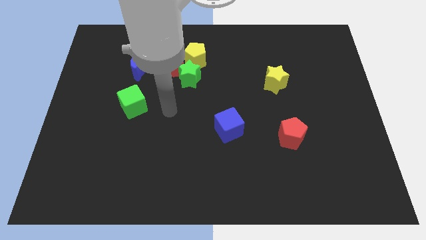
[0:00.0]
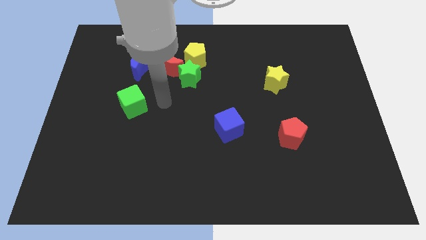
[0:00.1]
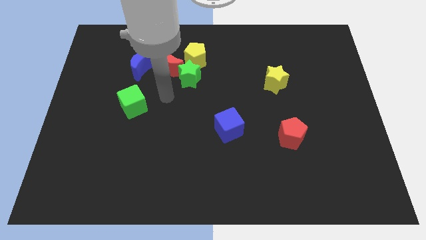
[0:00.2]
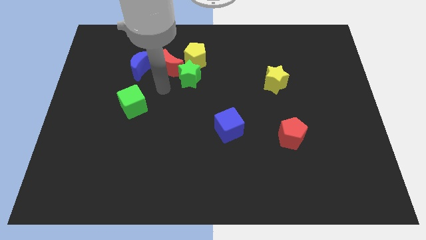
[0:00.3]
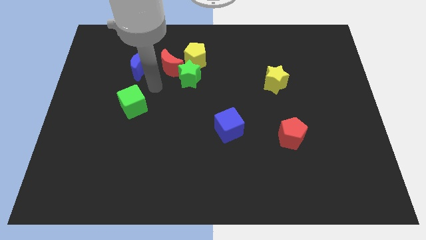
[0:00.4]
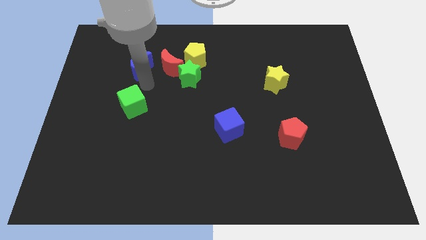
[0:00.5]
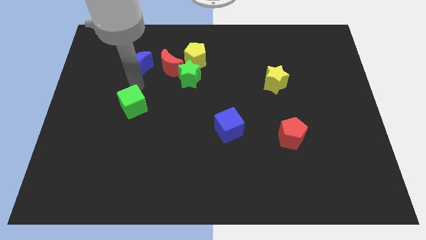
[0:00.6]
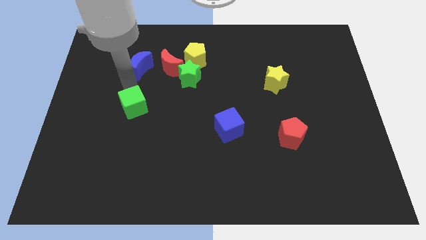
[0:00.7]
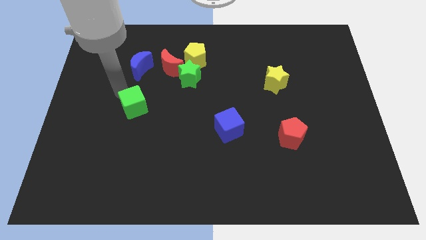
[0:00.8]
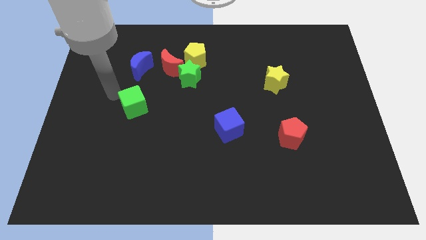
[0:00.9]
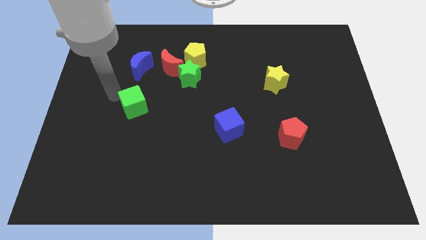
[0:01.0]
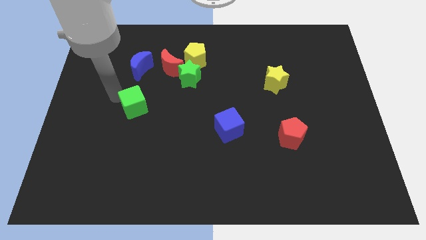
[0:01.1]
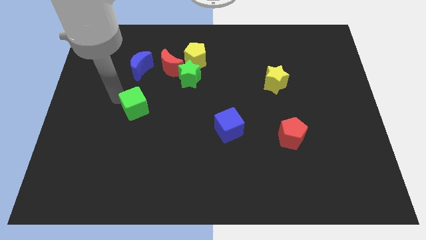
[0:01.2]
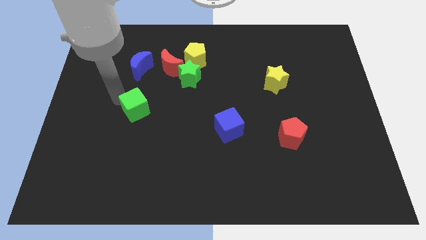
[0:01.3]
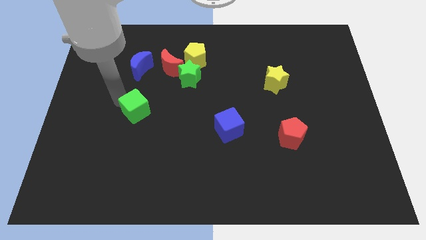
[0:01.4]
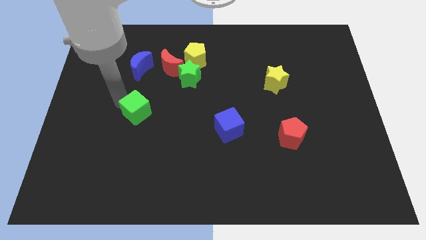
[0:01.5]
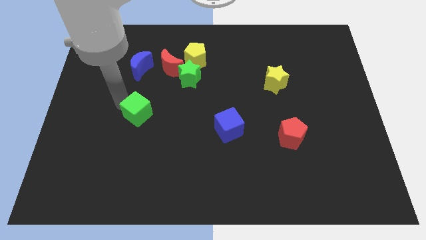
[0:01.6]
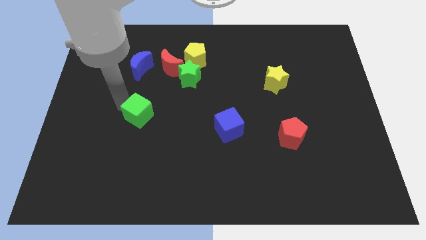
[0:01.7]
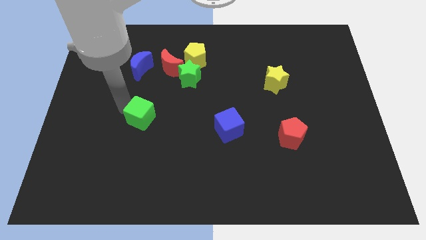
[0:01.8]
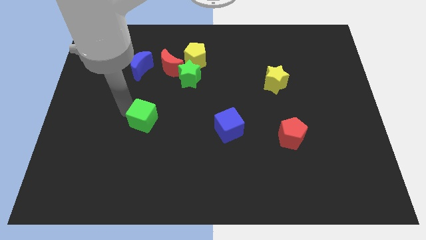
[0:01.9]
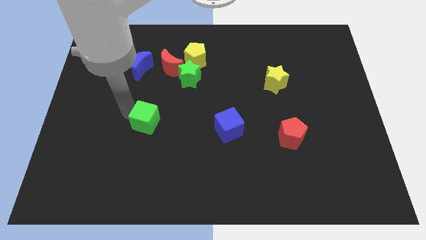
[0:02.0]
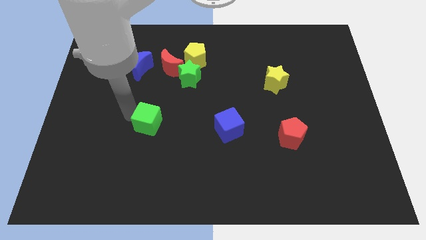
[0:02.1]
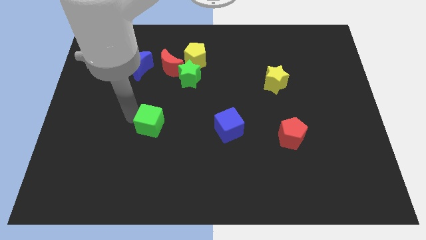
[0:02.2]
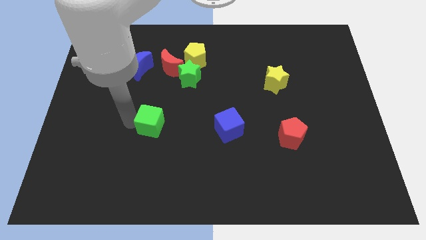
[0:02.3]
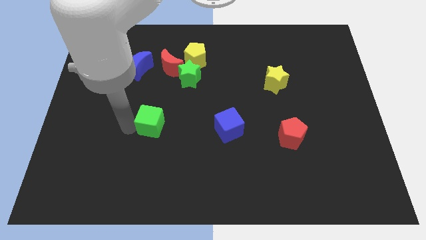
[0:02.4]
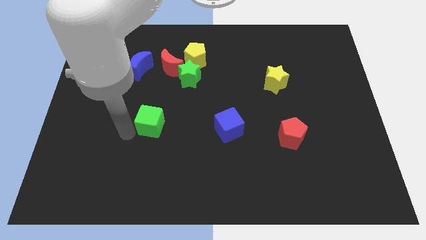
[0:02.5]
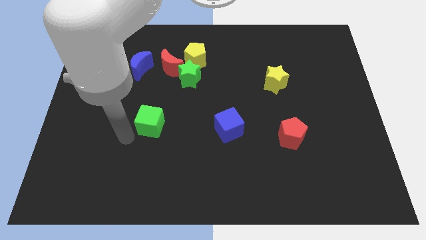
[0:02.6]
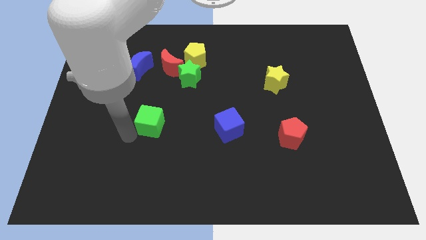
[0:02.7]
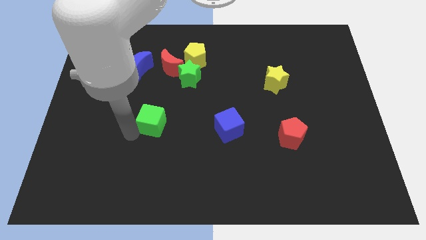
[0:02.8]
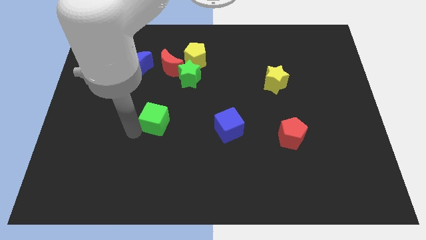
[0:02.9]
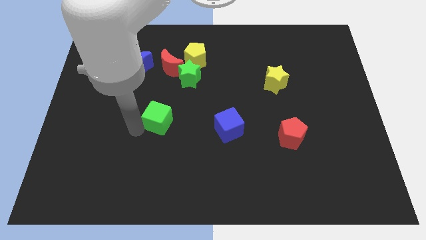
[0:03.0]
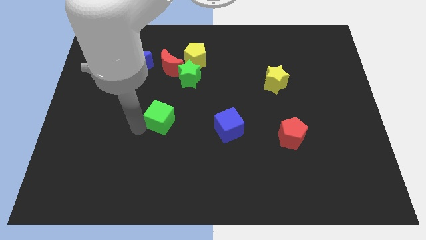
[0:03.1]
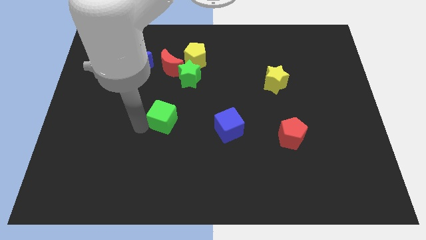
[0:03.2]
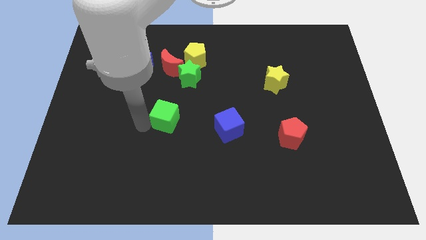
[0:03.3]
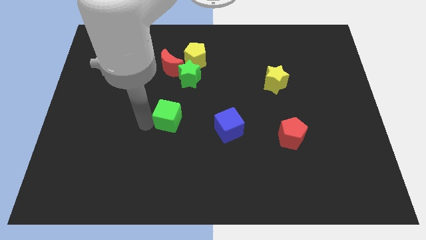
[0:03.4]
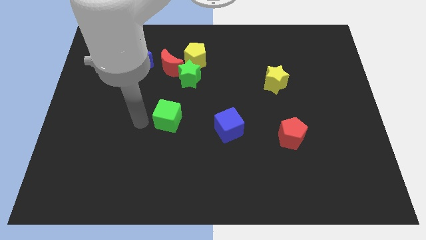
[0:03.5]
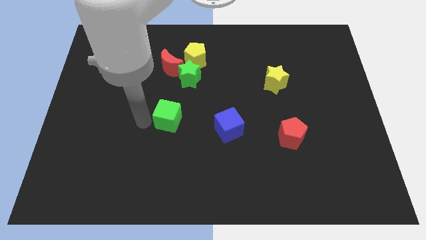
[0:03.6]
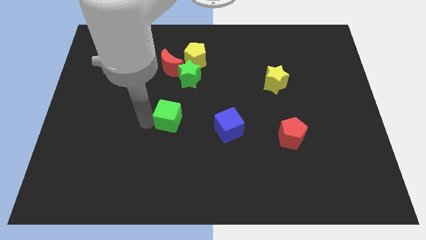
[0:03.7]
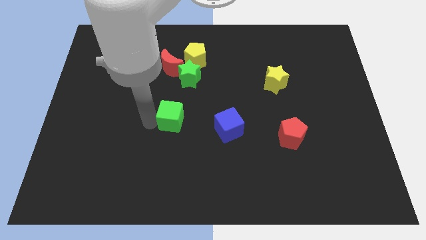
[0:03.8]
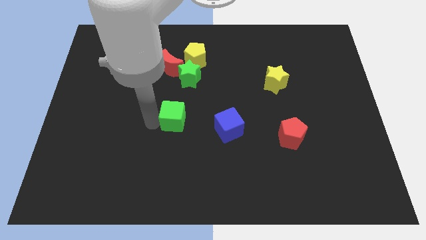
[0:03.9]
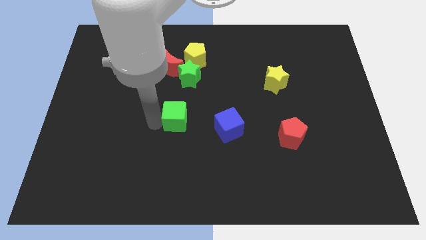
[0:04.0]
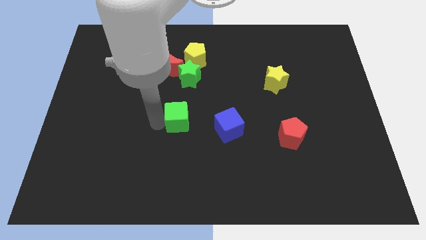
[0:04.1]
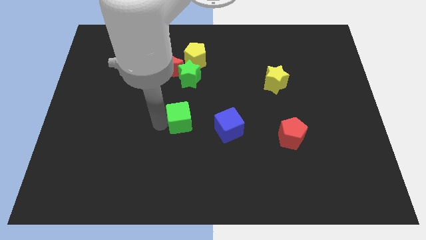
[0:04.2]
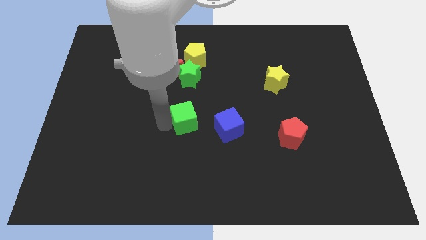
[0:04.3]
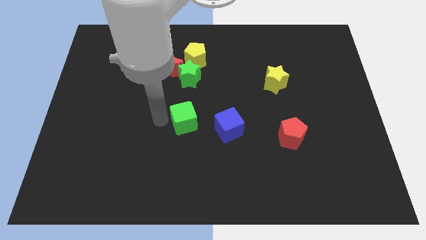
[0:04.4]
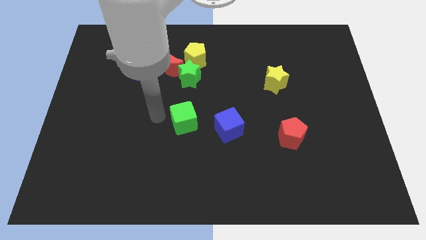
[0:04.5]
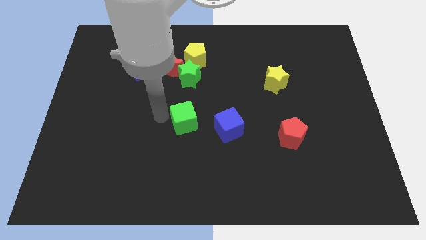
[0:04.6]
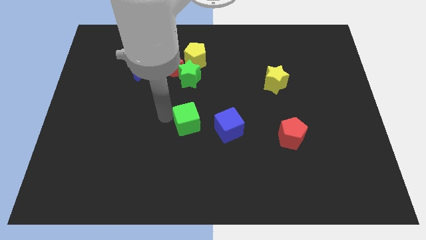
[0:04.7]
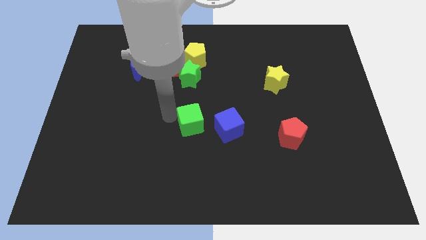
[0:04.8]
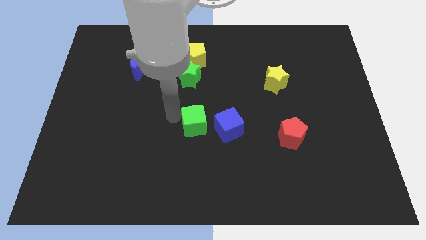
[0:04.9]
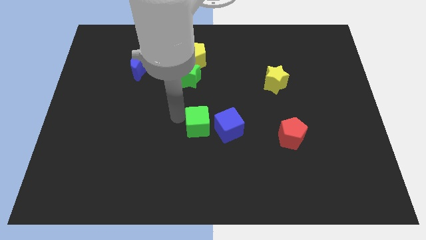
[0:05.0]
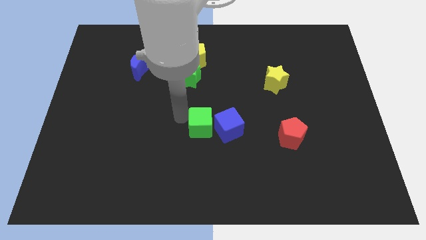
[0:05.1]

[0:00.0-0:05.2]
slide the green cube to the blue cube

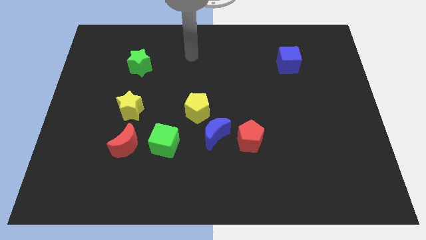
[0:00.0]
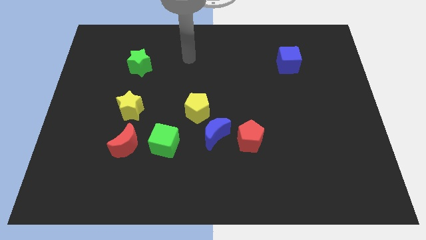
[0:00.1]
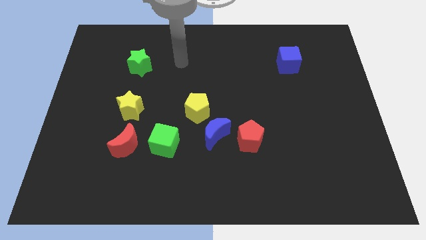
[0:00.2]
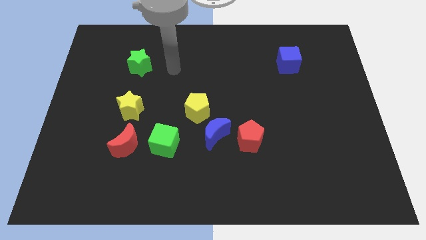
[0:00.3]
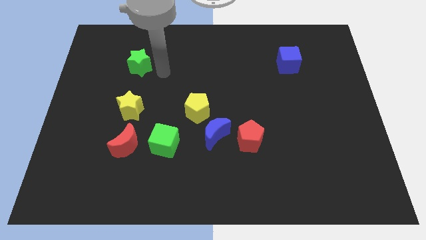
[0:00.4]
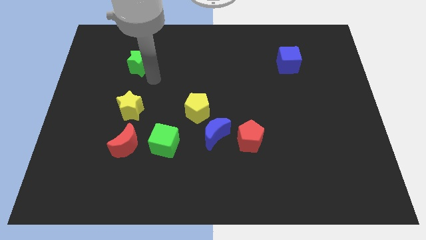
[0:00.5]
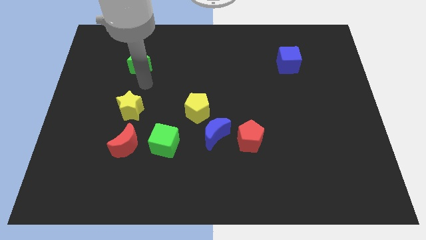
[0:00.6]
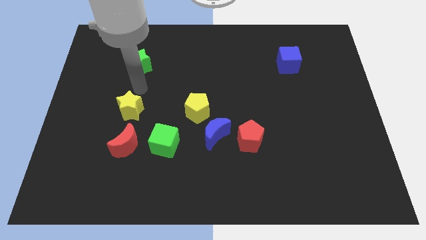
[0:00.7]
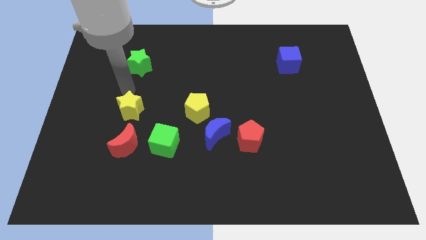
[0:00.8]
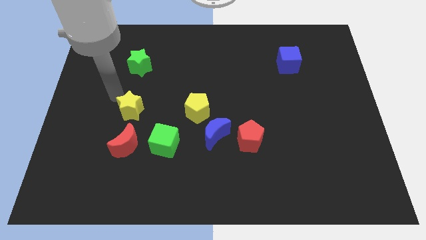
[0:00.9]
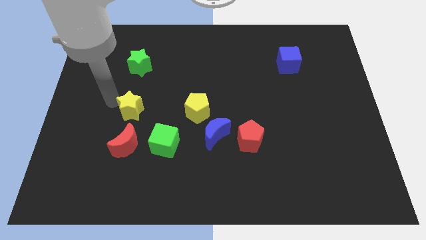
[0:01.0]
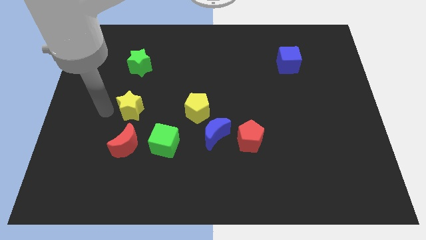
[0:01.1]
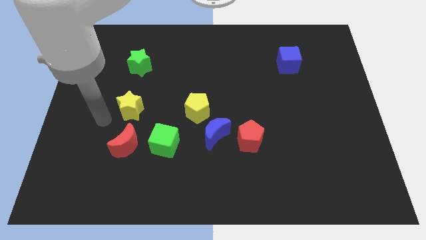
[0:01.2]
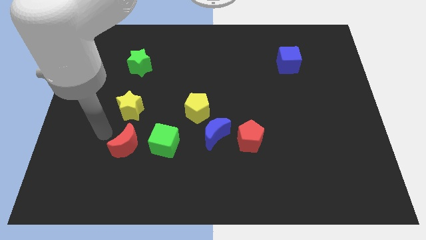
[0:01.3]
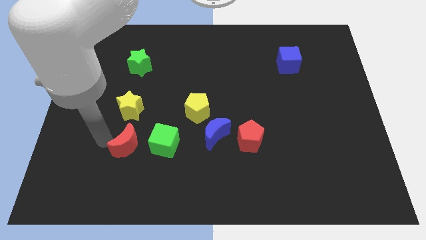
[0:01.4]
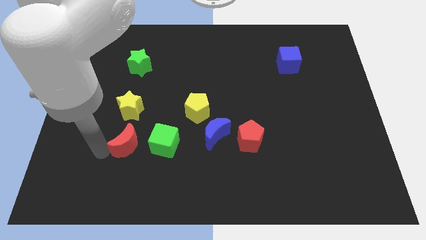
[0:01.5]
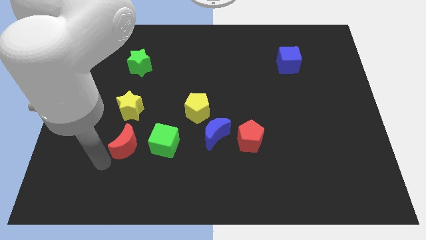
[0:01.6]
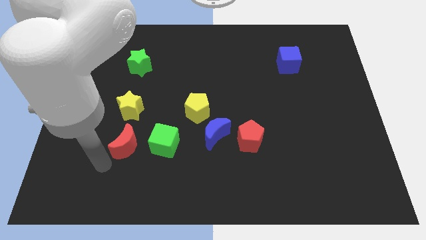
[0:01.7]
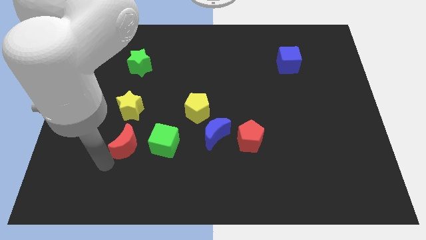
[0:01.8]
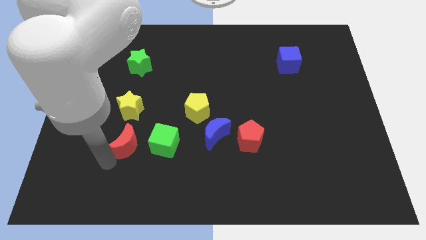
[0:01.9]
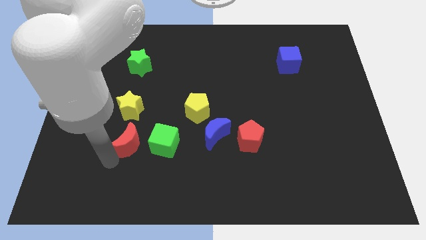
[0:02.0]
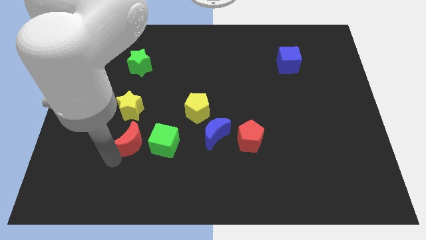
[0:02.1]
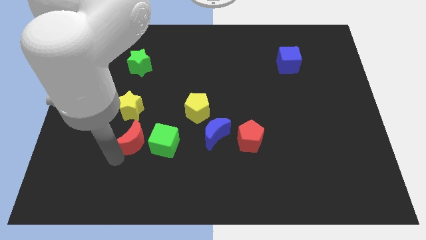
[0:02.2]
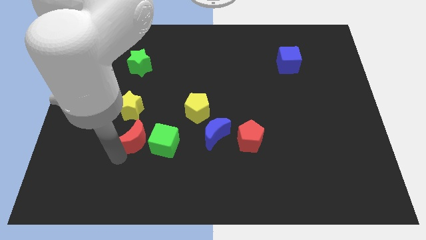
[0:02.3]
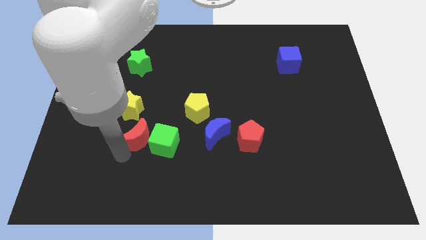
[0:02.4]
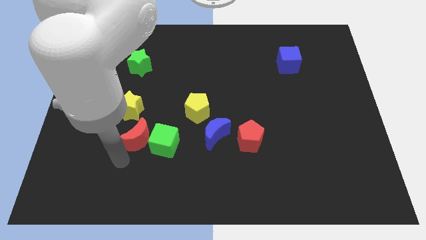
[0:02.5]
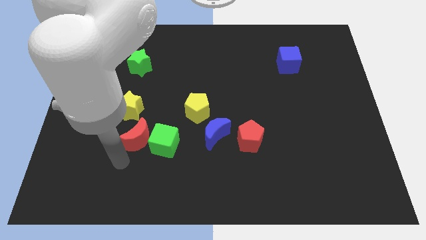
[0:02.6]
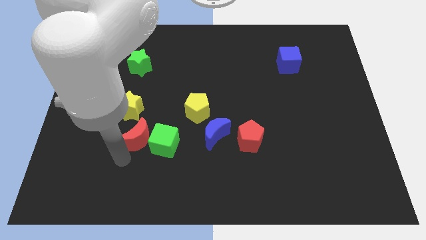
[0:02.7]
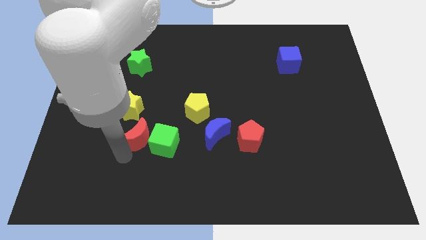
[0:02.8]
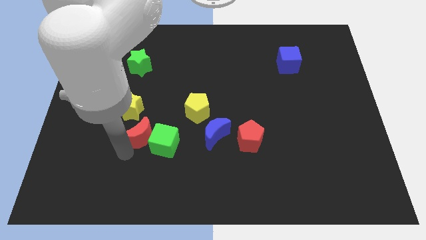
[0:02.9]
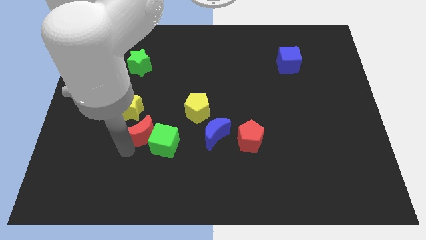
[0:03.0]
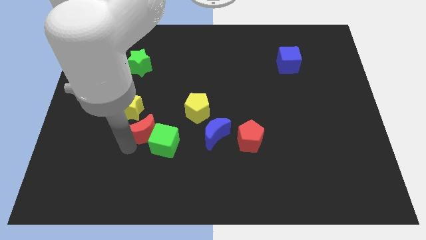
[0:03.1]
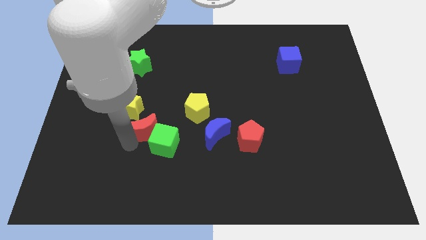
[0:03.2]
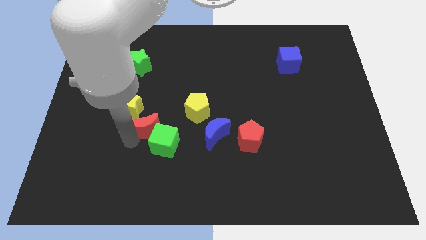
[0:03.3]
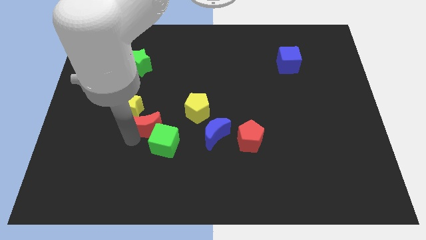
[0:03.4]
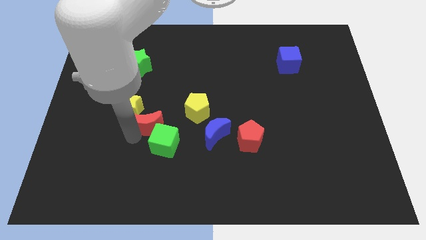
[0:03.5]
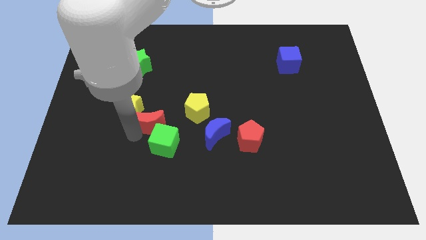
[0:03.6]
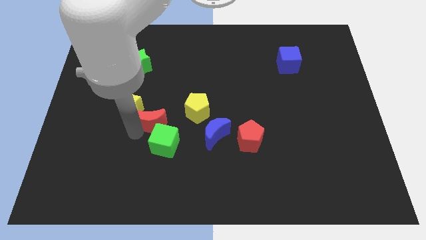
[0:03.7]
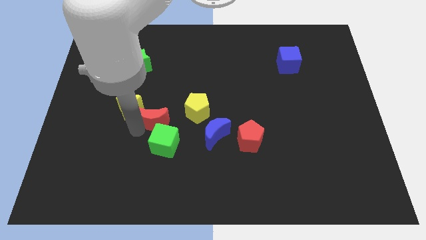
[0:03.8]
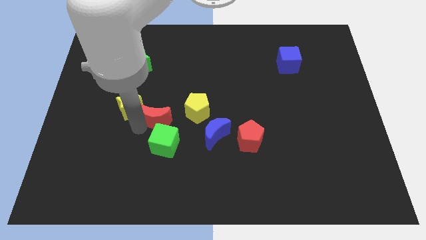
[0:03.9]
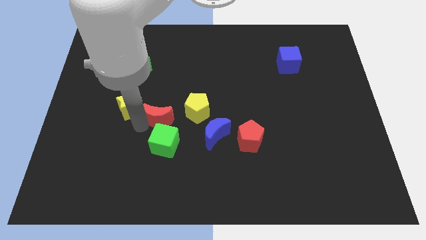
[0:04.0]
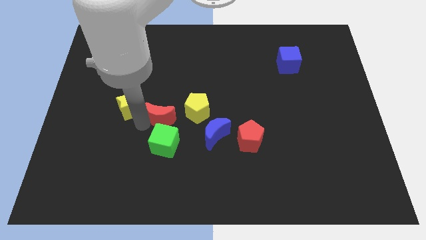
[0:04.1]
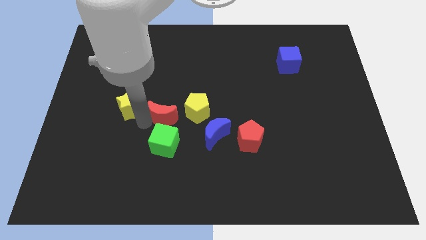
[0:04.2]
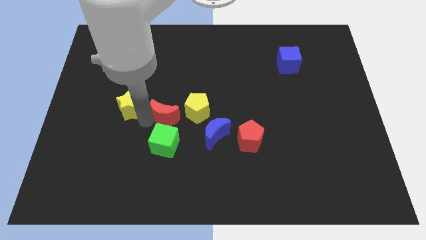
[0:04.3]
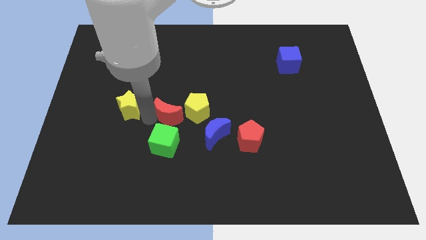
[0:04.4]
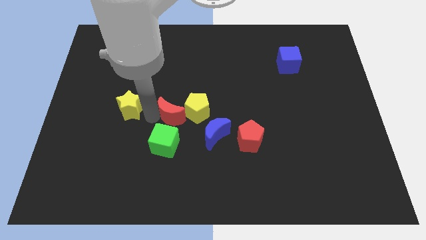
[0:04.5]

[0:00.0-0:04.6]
slide the red moon close to the yellow pentagon
